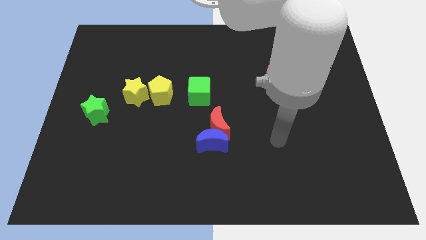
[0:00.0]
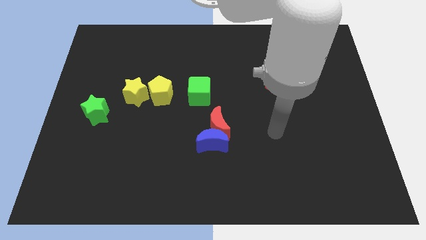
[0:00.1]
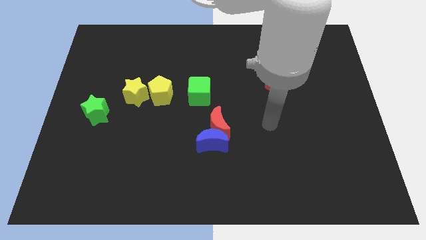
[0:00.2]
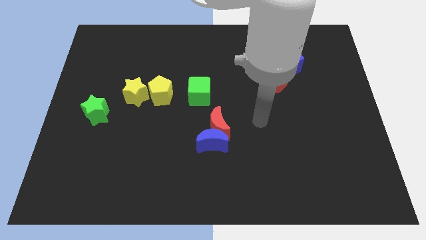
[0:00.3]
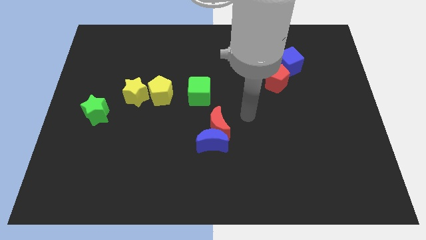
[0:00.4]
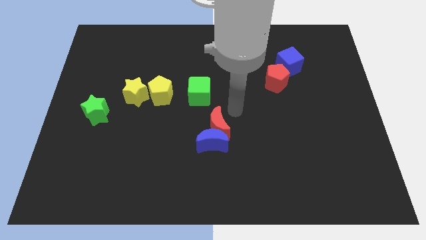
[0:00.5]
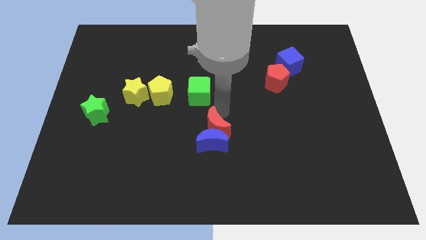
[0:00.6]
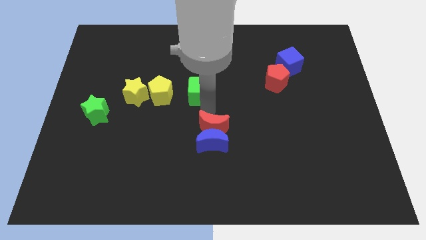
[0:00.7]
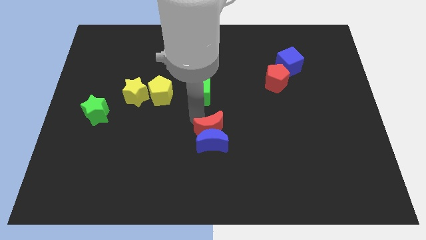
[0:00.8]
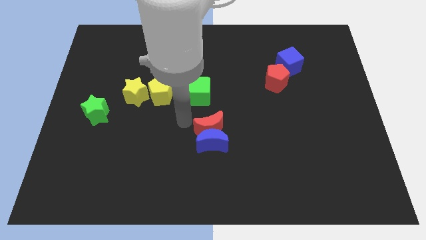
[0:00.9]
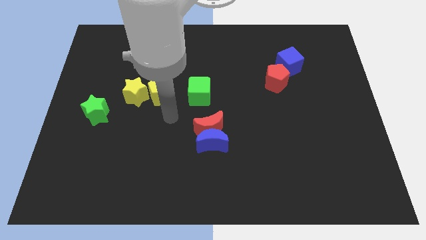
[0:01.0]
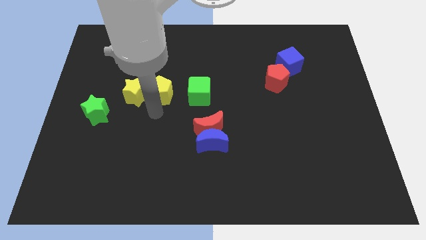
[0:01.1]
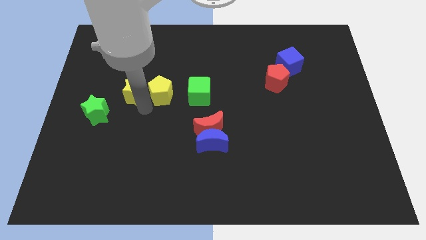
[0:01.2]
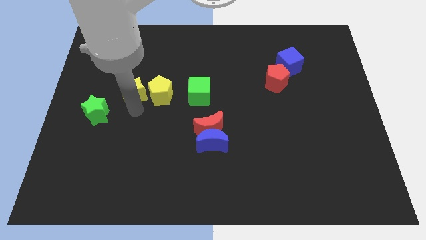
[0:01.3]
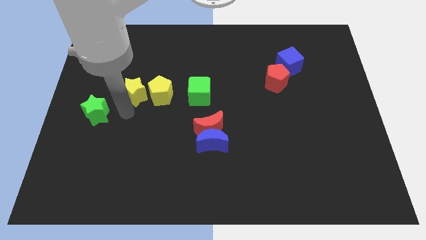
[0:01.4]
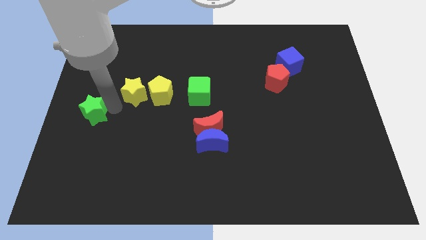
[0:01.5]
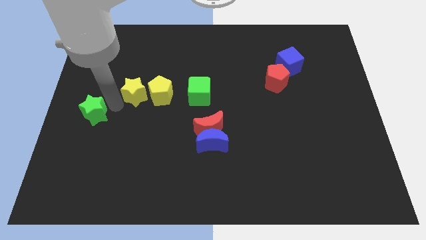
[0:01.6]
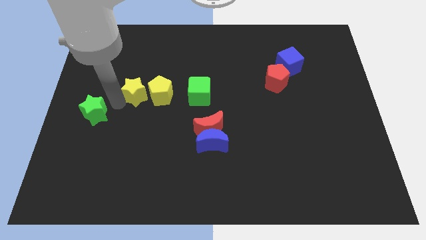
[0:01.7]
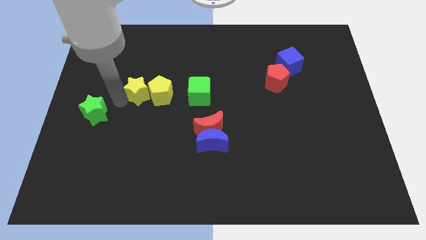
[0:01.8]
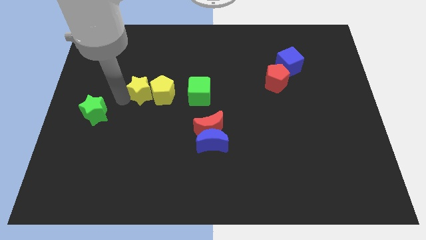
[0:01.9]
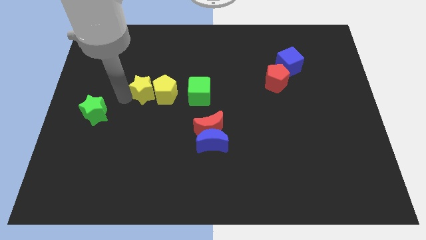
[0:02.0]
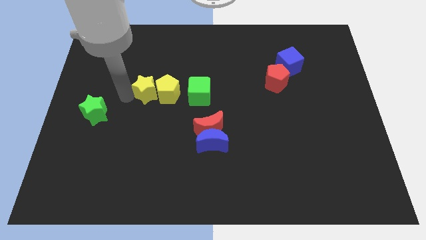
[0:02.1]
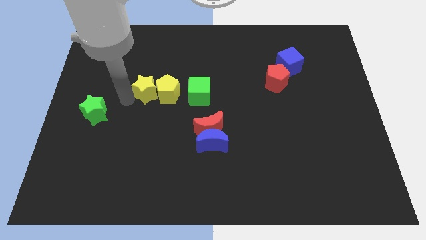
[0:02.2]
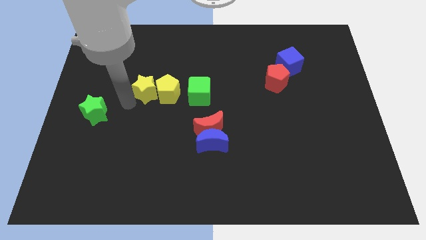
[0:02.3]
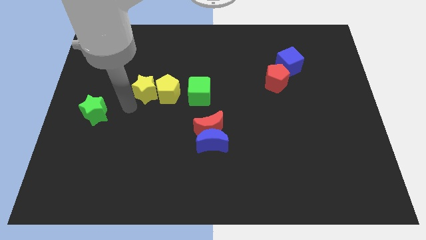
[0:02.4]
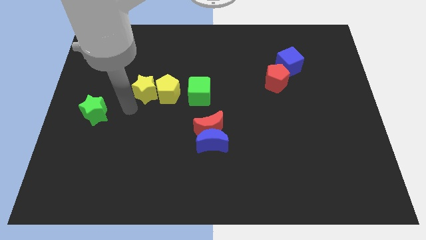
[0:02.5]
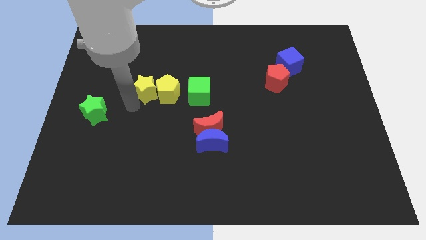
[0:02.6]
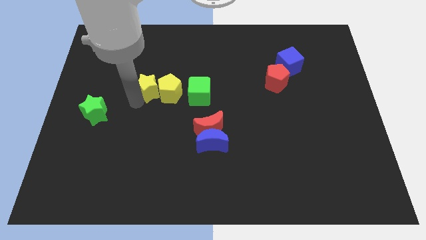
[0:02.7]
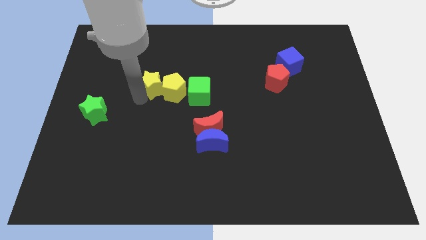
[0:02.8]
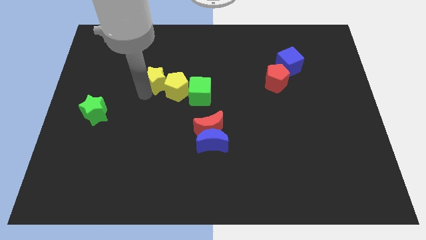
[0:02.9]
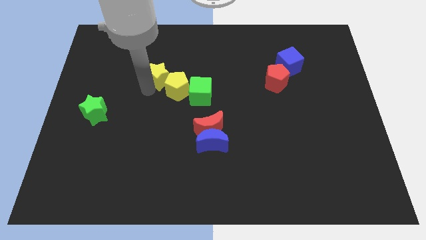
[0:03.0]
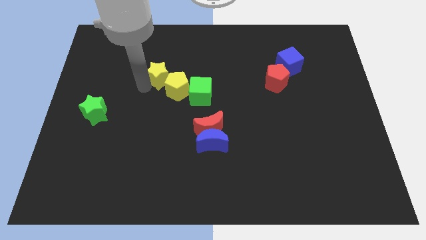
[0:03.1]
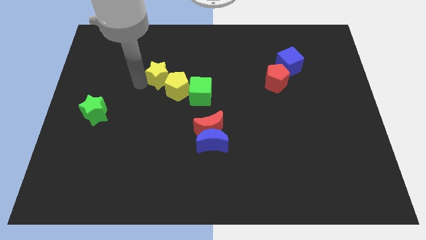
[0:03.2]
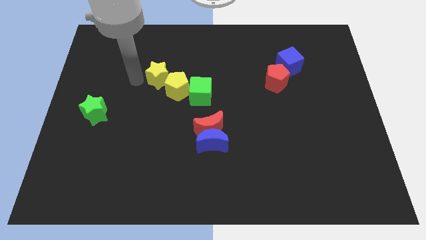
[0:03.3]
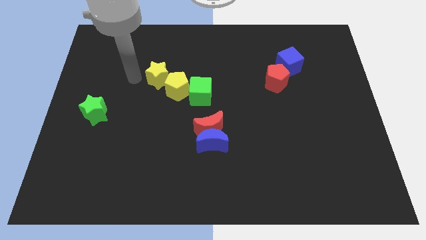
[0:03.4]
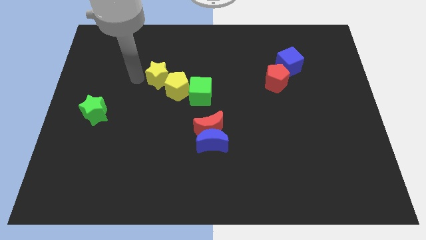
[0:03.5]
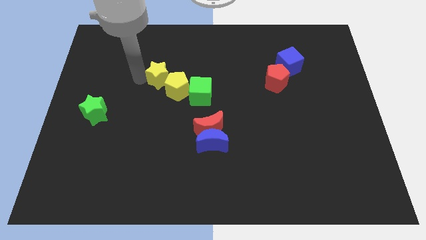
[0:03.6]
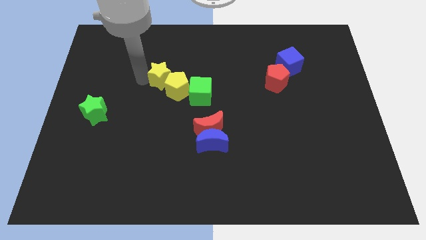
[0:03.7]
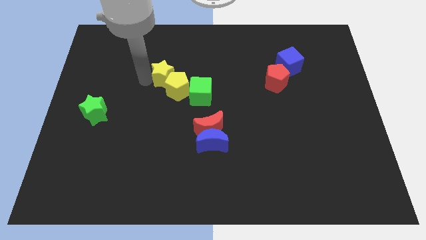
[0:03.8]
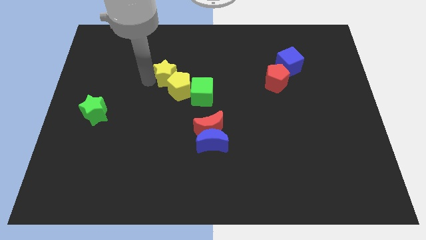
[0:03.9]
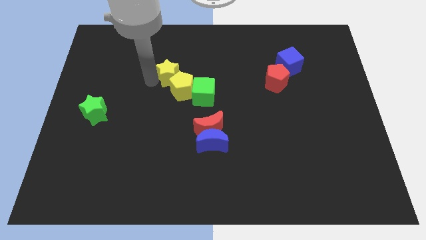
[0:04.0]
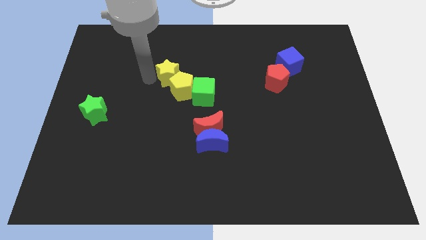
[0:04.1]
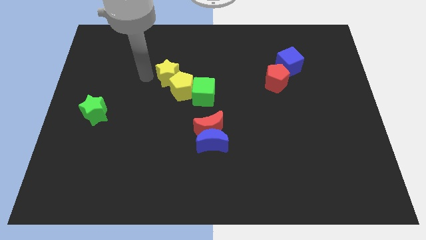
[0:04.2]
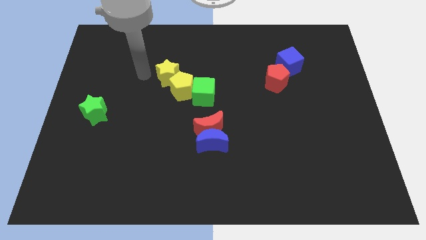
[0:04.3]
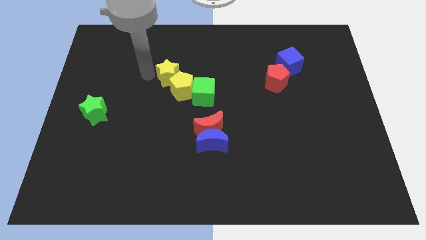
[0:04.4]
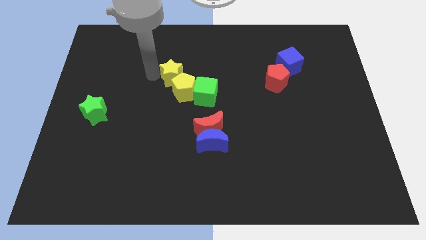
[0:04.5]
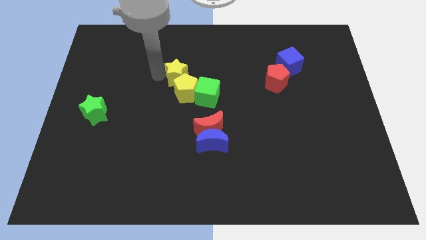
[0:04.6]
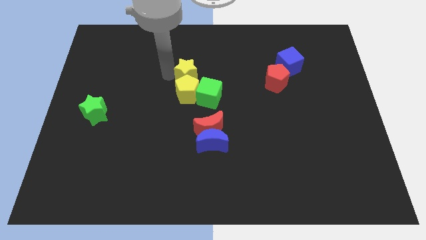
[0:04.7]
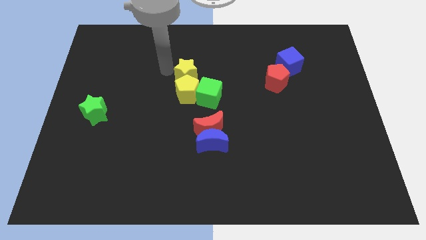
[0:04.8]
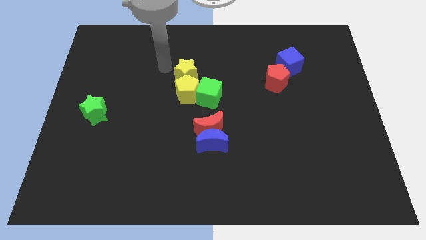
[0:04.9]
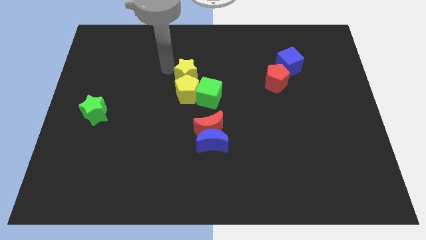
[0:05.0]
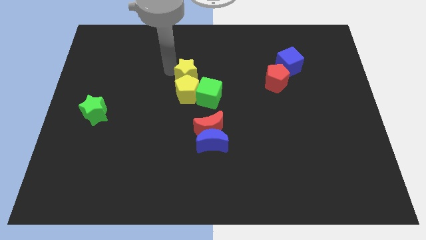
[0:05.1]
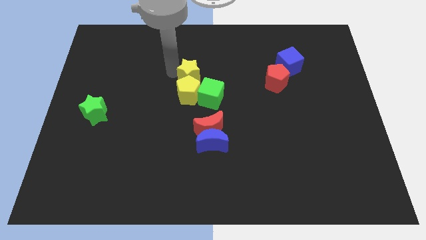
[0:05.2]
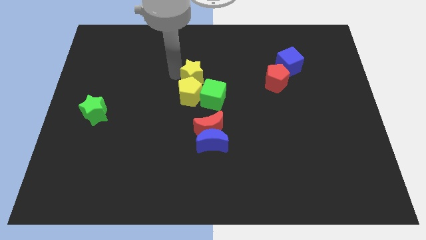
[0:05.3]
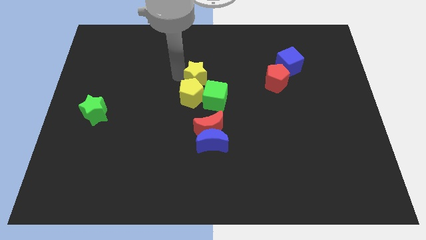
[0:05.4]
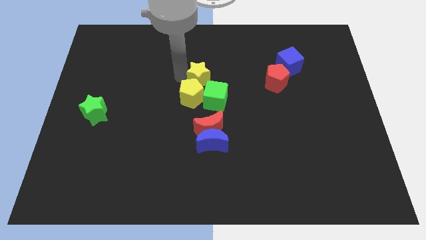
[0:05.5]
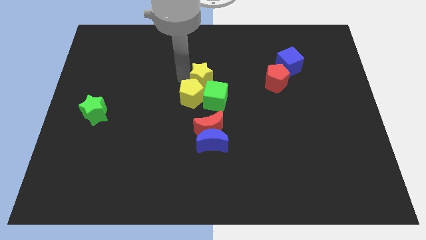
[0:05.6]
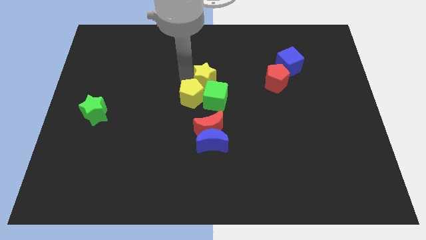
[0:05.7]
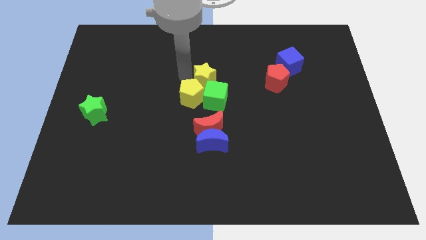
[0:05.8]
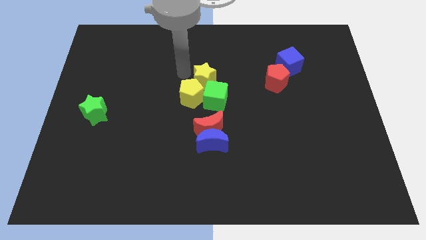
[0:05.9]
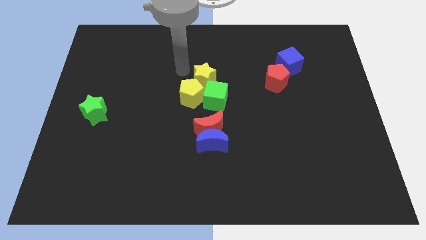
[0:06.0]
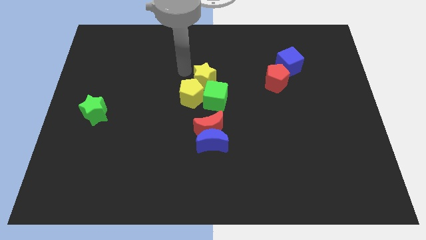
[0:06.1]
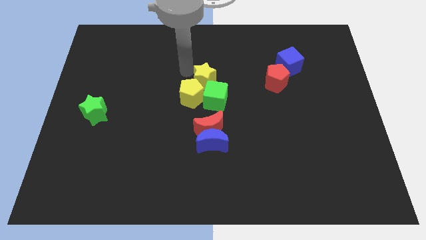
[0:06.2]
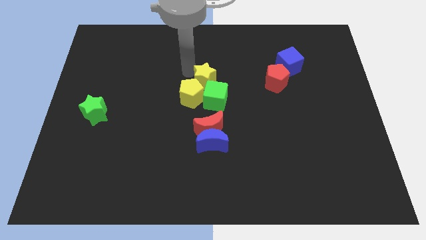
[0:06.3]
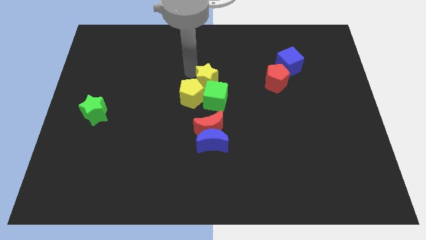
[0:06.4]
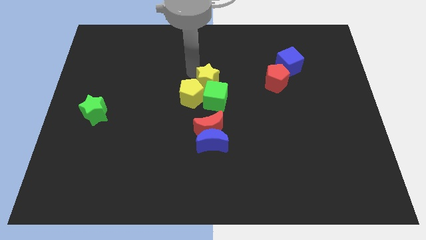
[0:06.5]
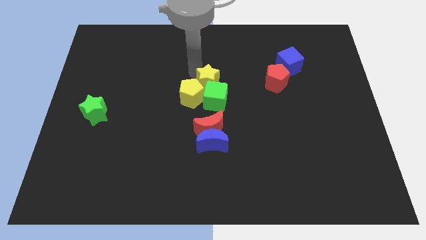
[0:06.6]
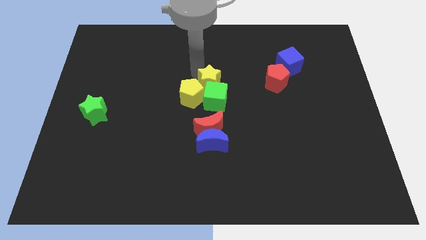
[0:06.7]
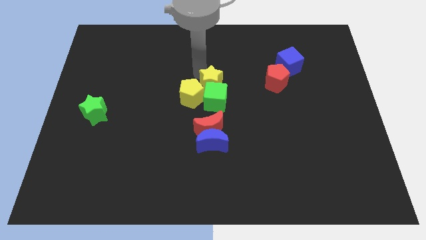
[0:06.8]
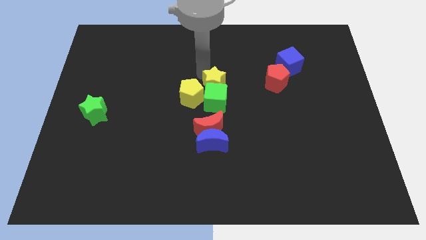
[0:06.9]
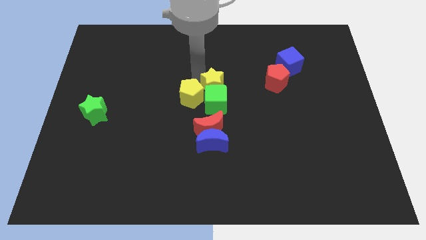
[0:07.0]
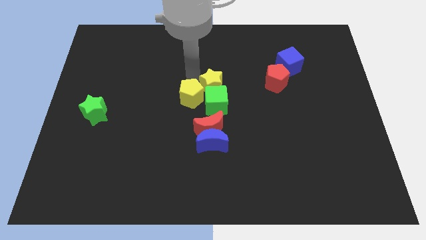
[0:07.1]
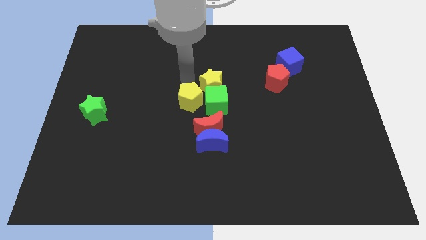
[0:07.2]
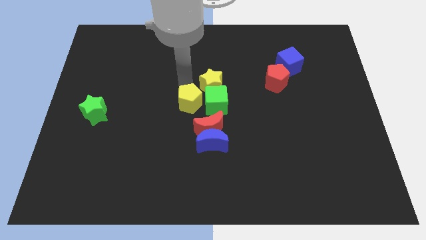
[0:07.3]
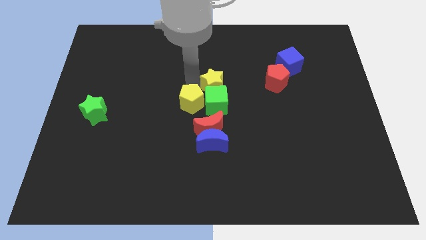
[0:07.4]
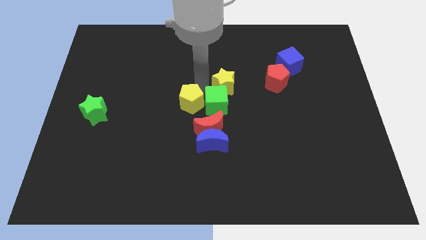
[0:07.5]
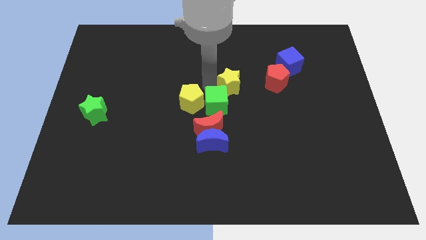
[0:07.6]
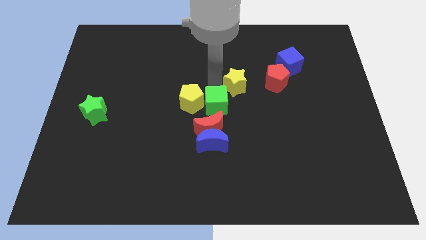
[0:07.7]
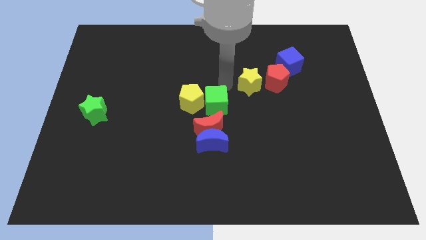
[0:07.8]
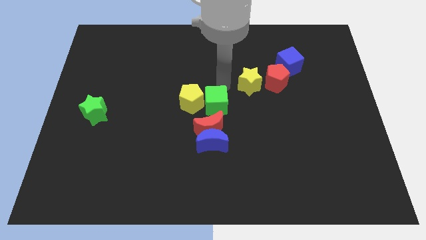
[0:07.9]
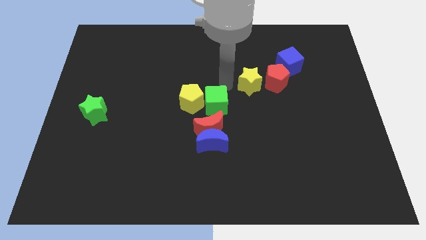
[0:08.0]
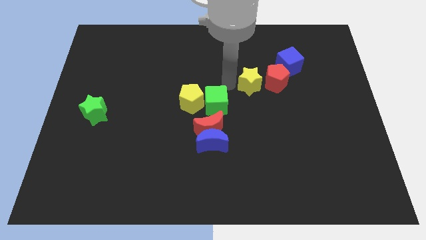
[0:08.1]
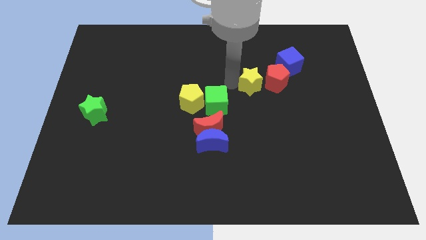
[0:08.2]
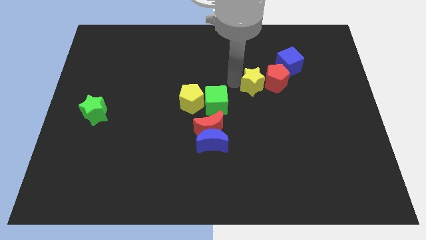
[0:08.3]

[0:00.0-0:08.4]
slide the yellow star close to the red pentagon
